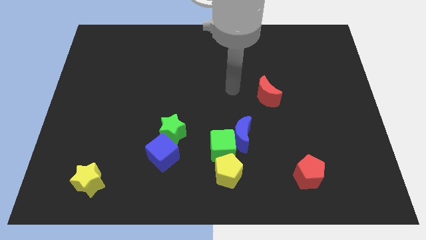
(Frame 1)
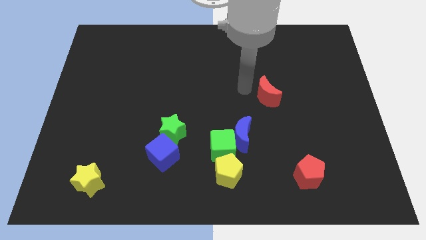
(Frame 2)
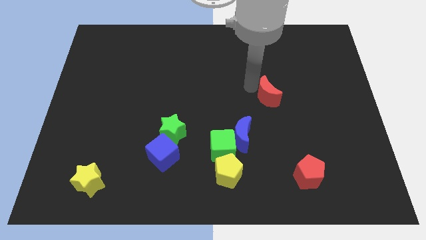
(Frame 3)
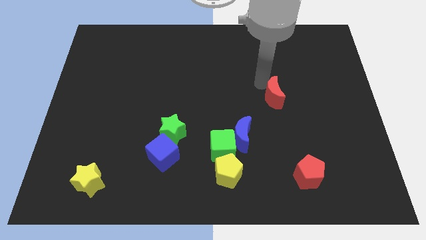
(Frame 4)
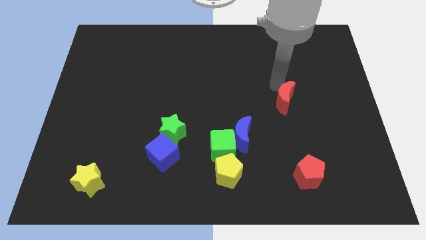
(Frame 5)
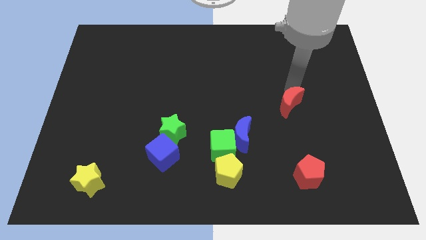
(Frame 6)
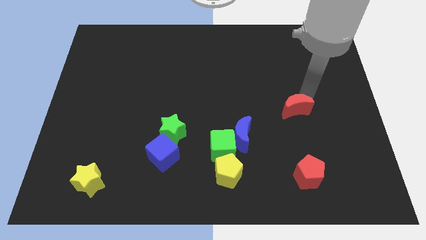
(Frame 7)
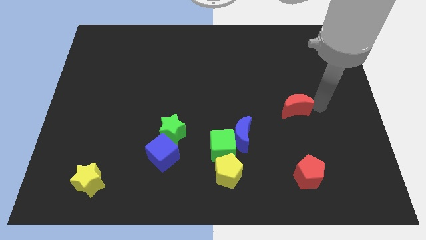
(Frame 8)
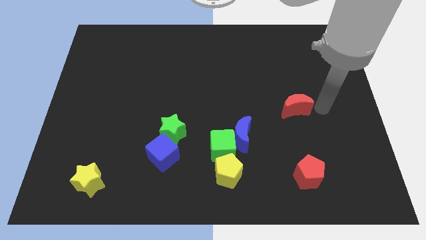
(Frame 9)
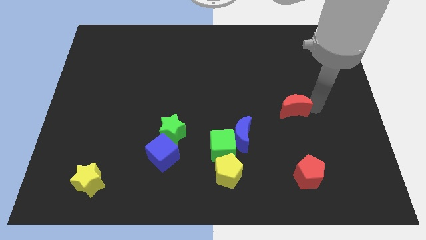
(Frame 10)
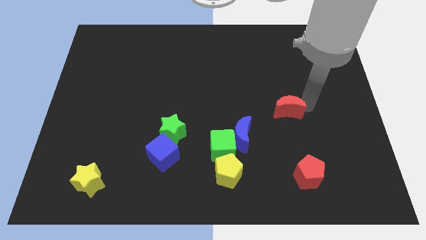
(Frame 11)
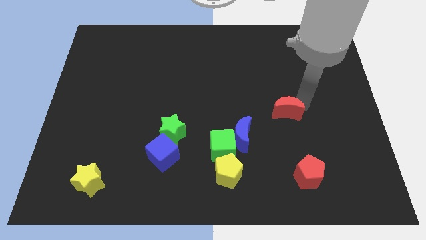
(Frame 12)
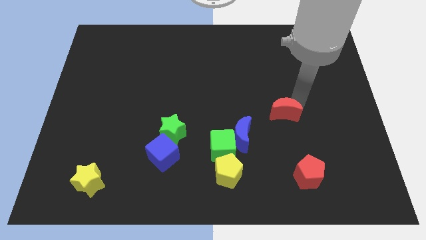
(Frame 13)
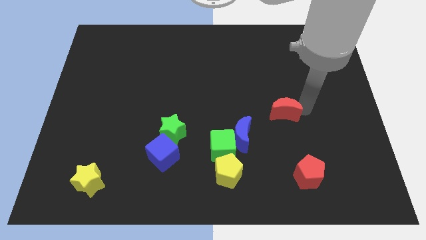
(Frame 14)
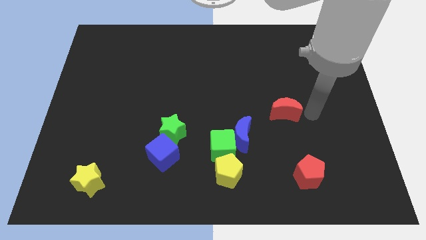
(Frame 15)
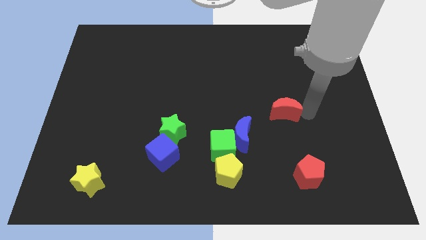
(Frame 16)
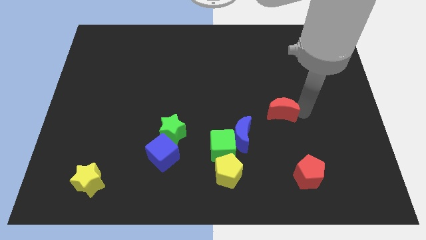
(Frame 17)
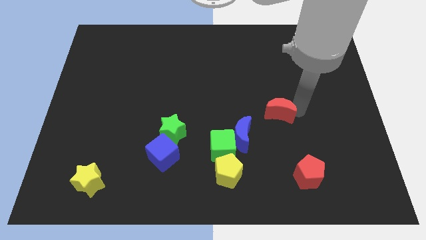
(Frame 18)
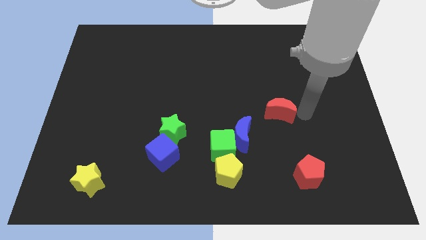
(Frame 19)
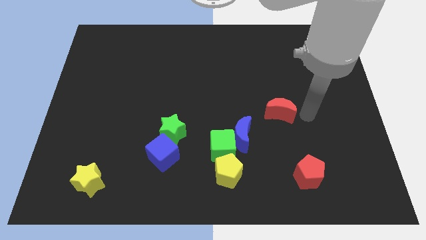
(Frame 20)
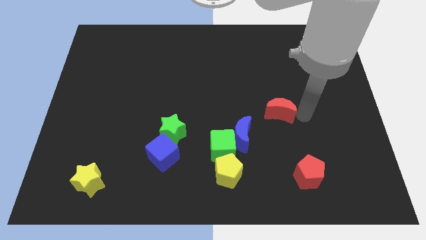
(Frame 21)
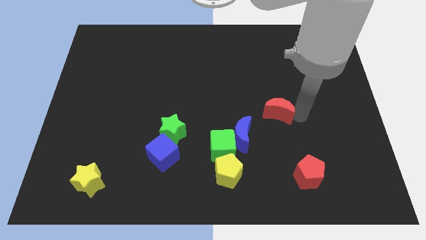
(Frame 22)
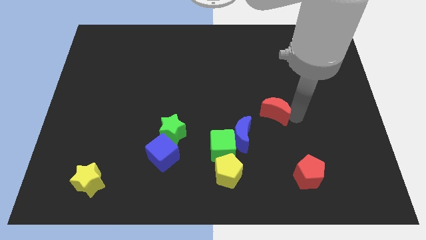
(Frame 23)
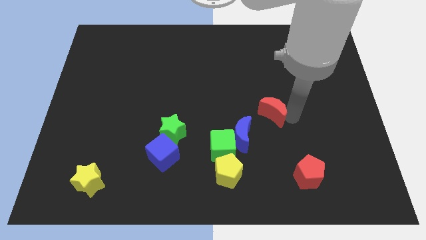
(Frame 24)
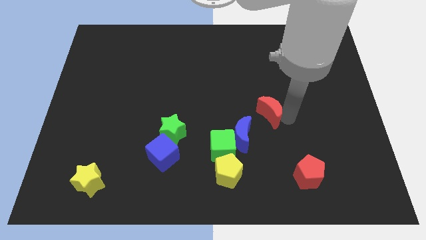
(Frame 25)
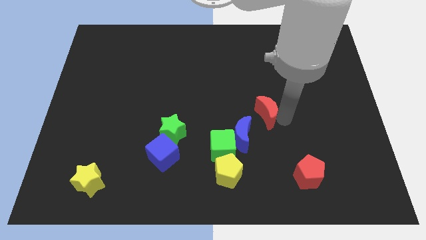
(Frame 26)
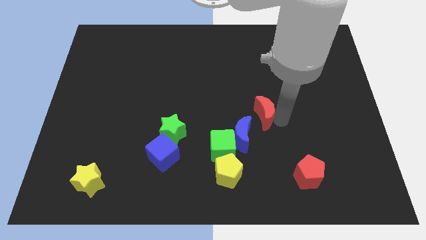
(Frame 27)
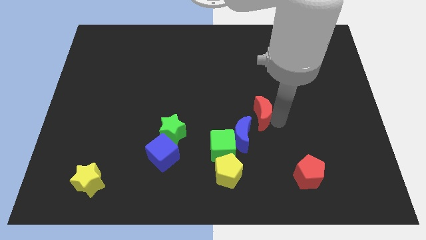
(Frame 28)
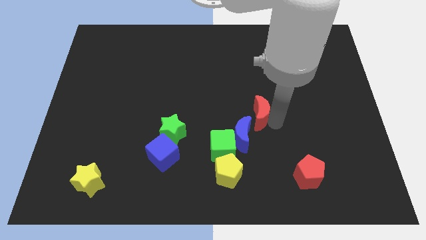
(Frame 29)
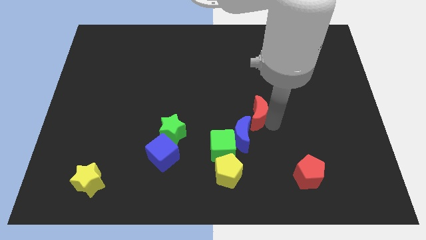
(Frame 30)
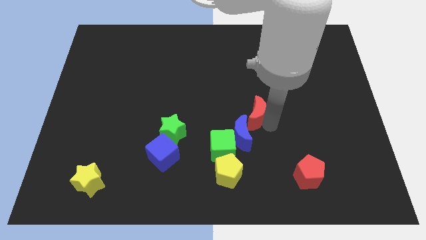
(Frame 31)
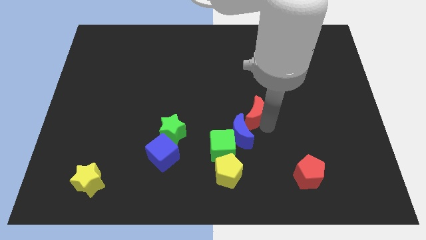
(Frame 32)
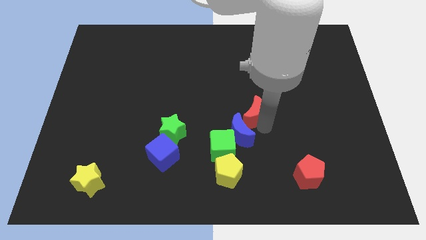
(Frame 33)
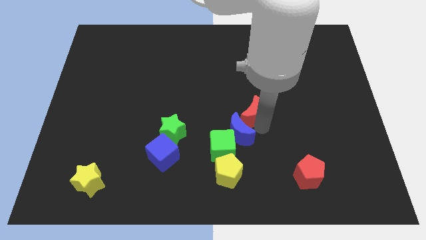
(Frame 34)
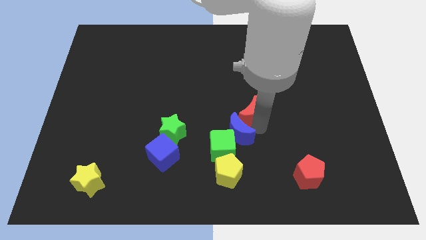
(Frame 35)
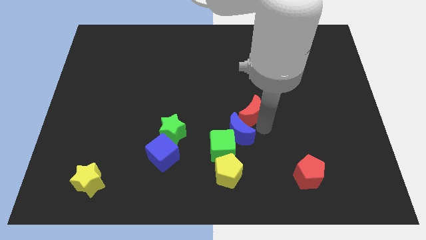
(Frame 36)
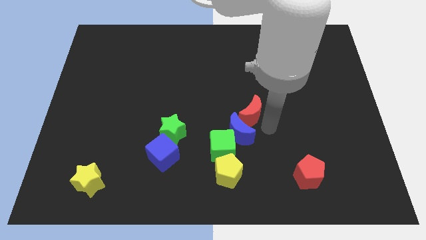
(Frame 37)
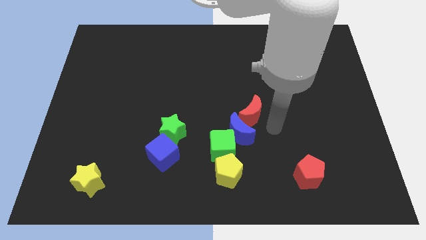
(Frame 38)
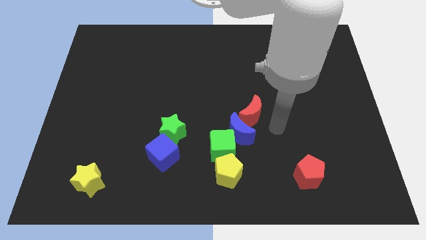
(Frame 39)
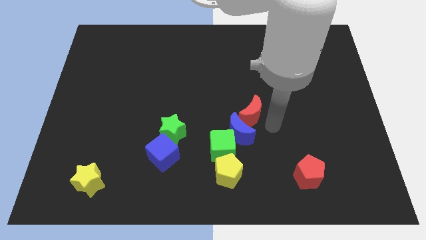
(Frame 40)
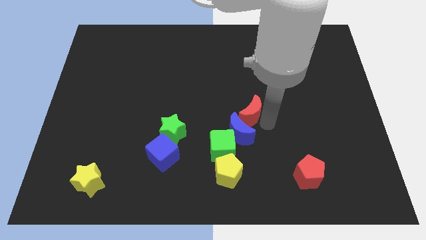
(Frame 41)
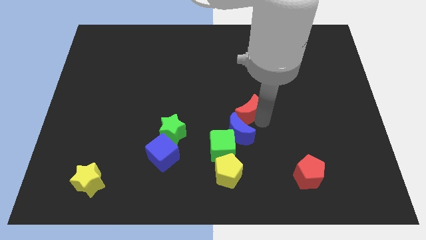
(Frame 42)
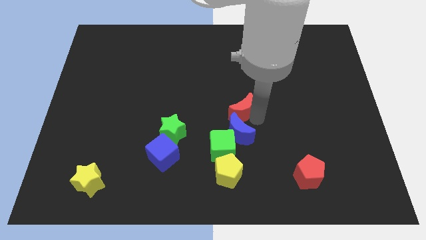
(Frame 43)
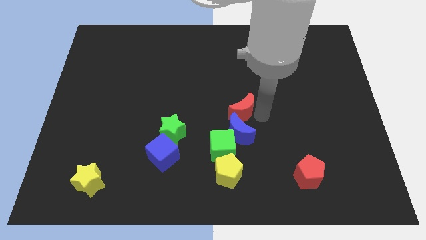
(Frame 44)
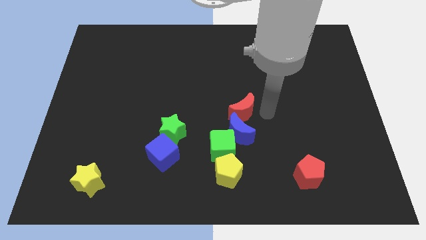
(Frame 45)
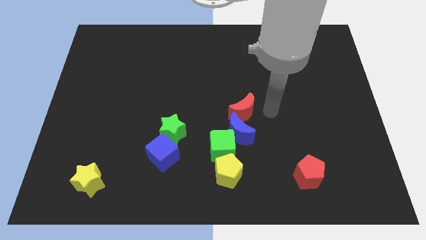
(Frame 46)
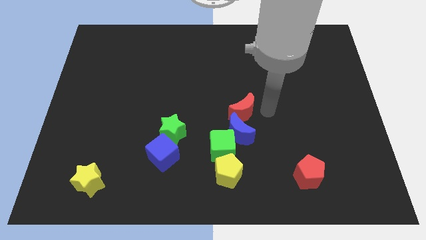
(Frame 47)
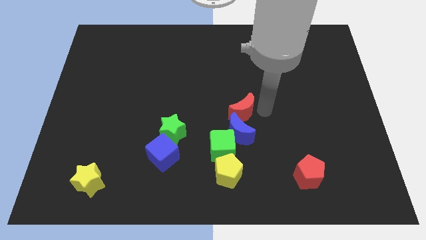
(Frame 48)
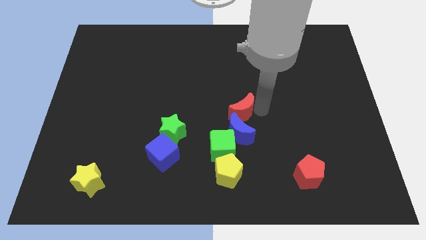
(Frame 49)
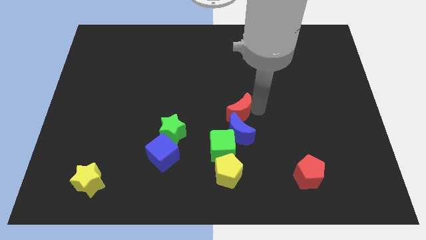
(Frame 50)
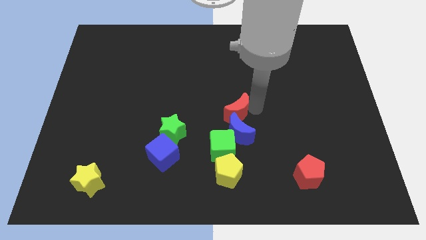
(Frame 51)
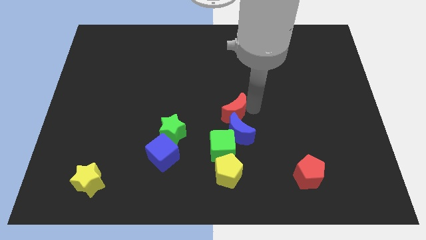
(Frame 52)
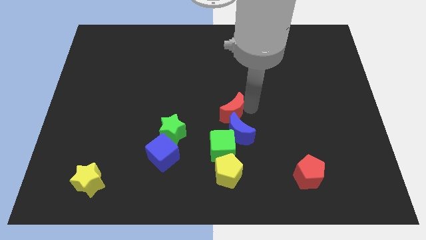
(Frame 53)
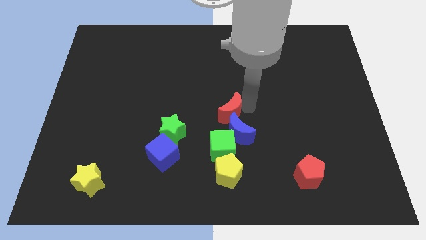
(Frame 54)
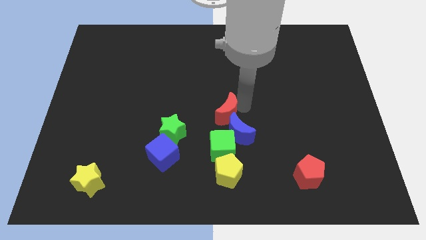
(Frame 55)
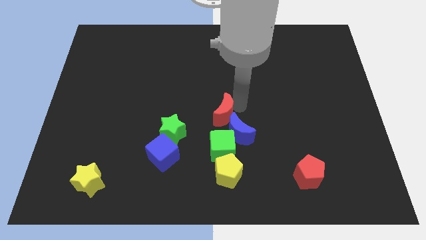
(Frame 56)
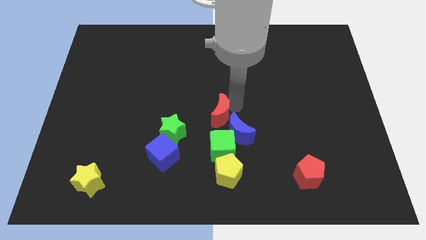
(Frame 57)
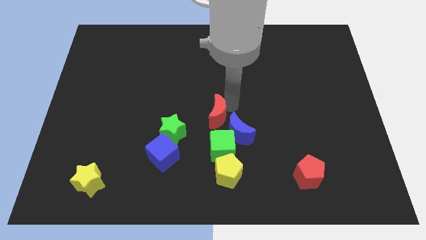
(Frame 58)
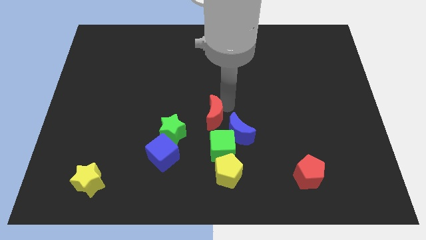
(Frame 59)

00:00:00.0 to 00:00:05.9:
slide the red moon to the left of the blue moon

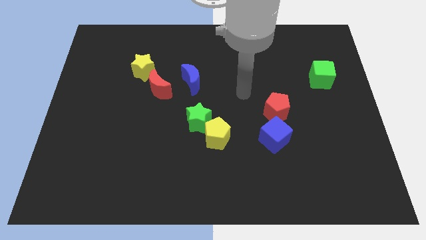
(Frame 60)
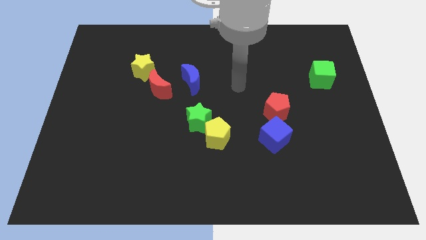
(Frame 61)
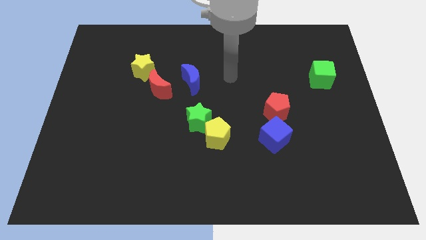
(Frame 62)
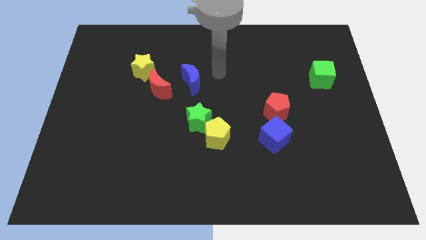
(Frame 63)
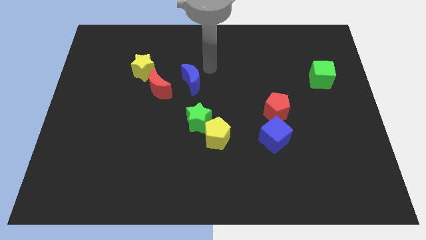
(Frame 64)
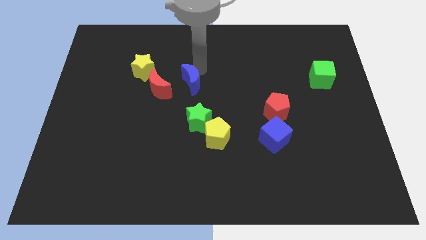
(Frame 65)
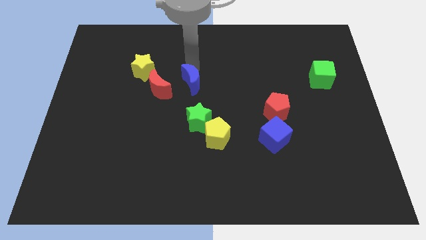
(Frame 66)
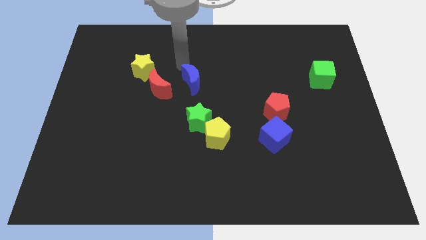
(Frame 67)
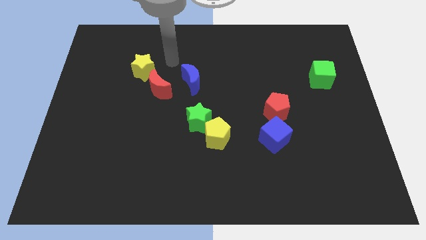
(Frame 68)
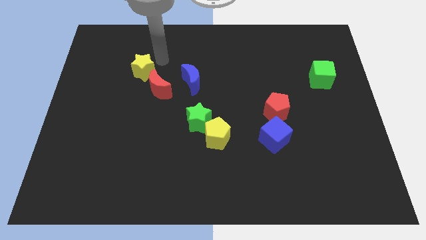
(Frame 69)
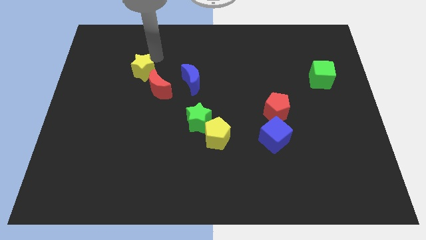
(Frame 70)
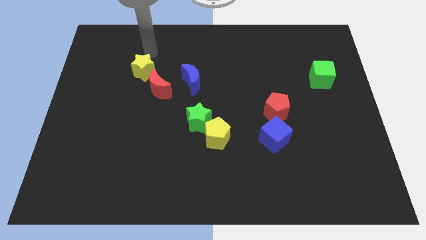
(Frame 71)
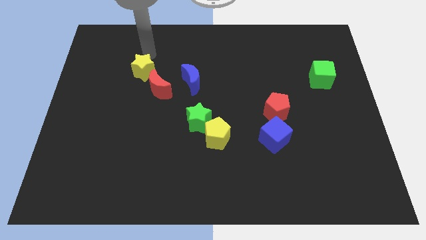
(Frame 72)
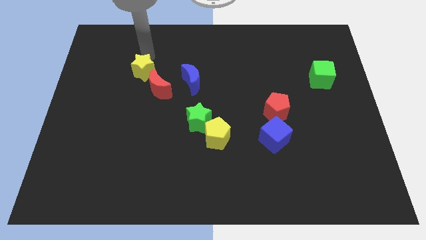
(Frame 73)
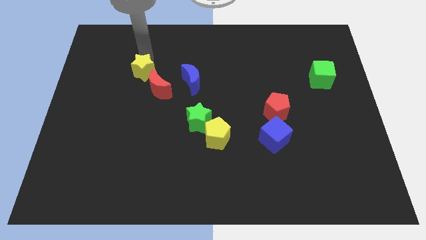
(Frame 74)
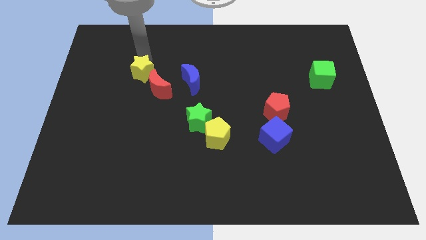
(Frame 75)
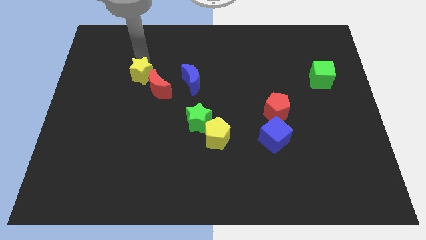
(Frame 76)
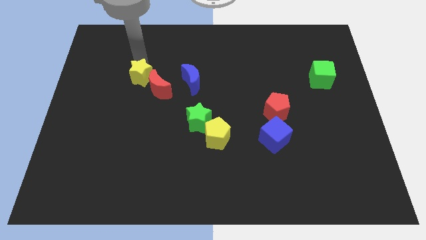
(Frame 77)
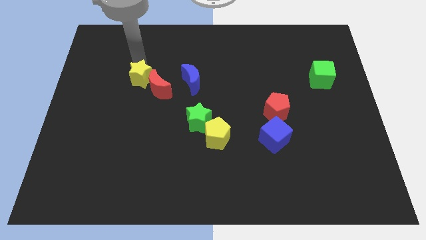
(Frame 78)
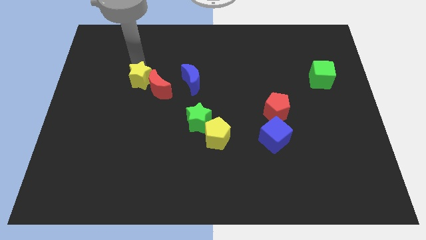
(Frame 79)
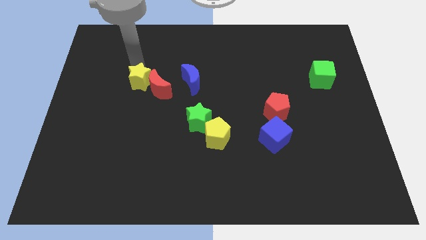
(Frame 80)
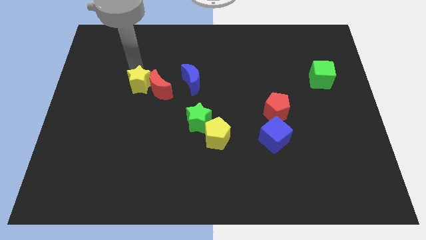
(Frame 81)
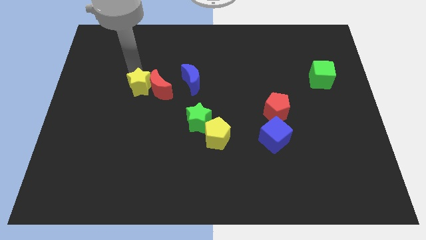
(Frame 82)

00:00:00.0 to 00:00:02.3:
move the yellow star to the bottom left of the red moon

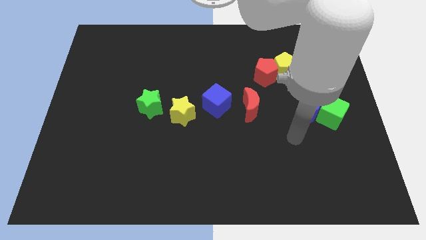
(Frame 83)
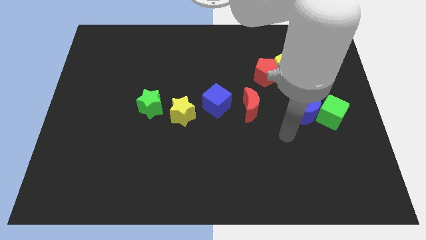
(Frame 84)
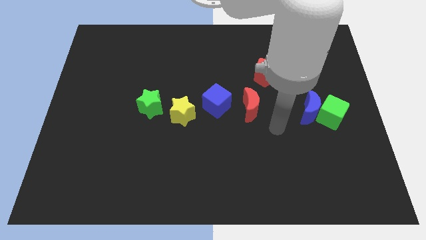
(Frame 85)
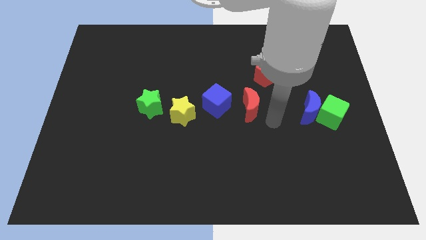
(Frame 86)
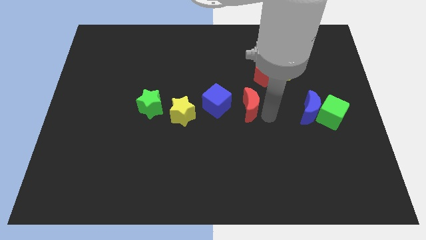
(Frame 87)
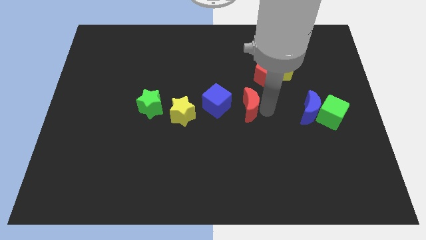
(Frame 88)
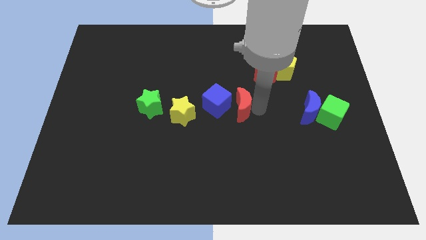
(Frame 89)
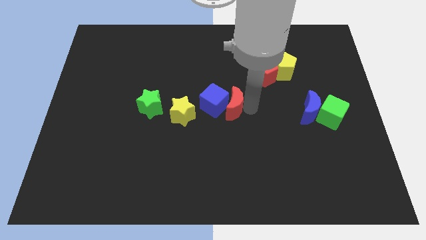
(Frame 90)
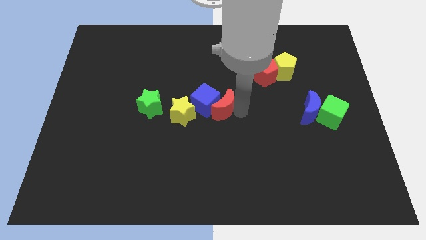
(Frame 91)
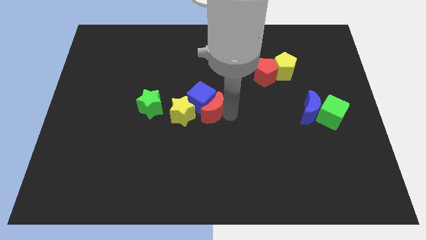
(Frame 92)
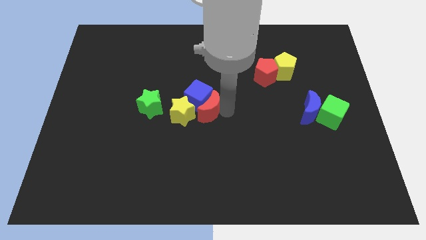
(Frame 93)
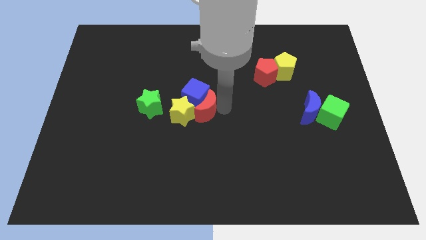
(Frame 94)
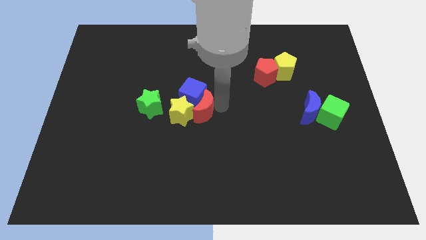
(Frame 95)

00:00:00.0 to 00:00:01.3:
push the blue cube to the top right side of the green star
